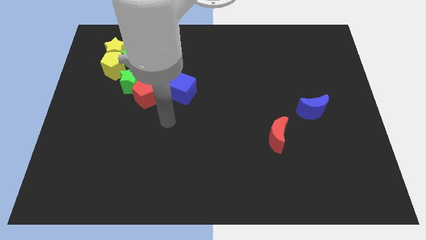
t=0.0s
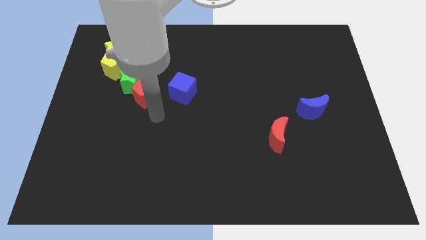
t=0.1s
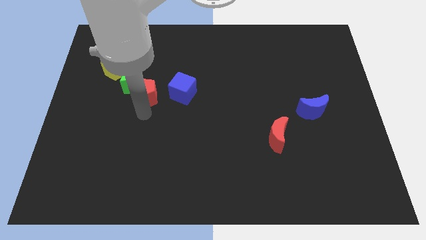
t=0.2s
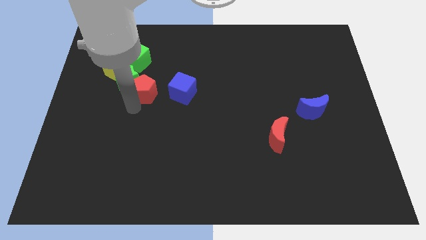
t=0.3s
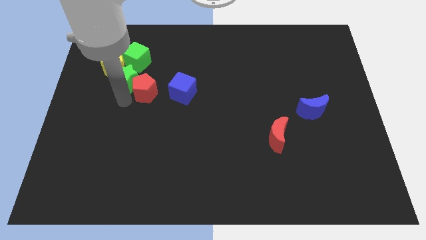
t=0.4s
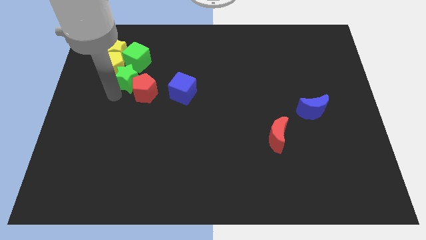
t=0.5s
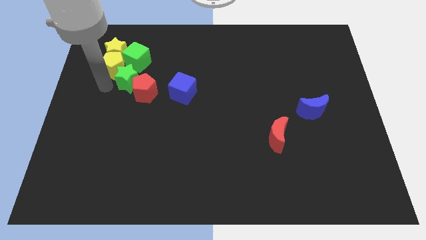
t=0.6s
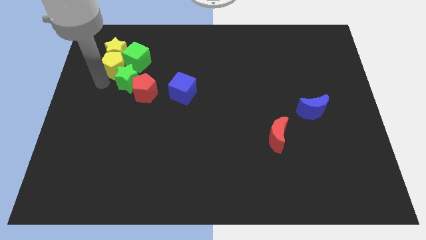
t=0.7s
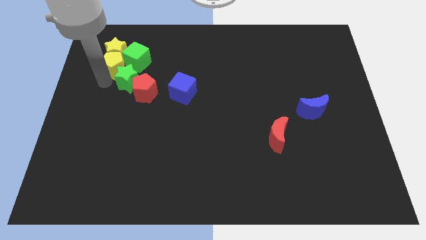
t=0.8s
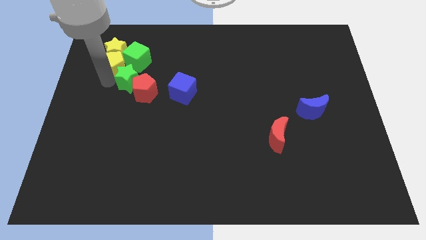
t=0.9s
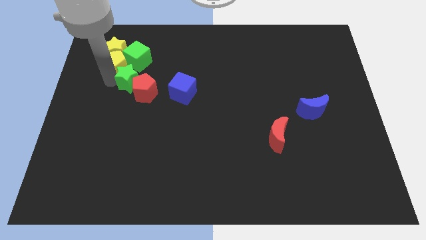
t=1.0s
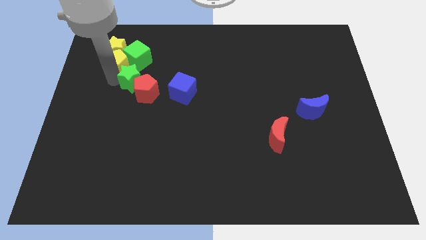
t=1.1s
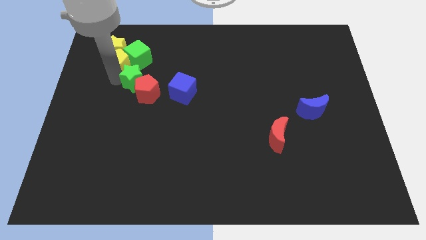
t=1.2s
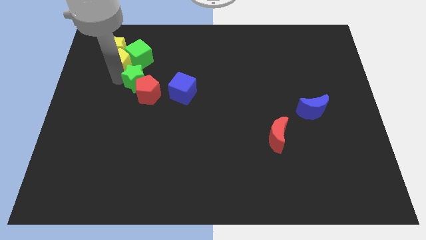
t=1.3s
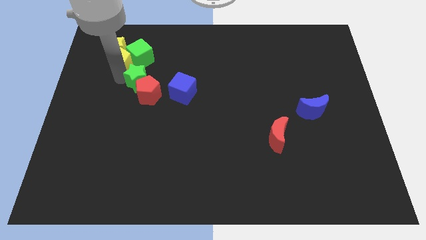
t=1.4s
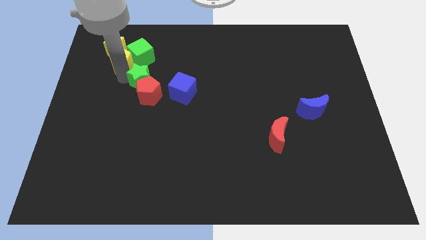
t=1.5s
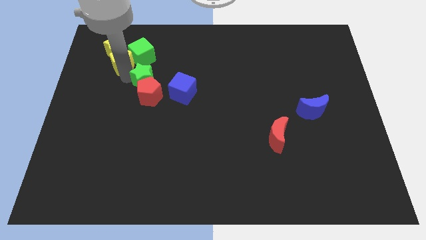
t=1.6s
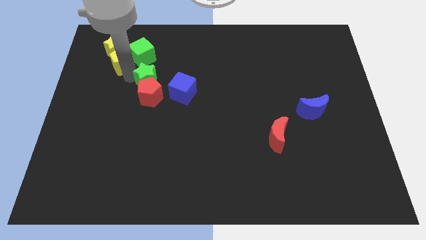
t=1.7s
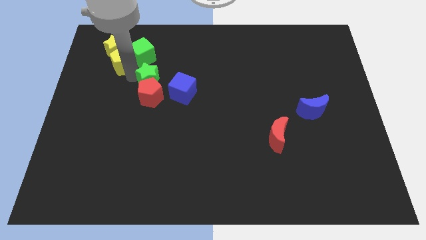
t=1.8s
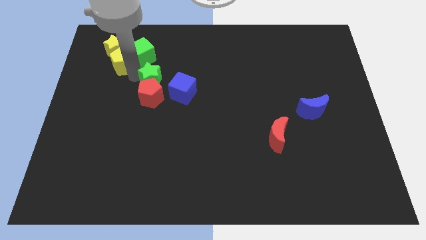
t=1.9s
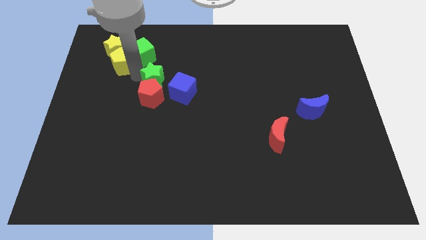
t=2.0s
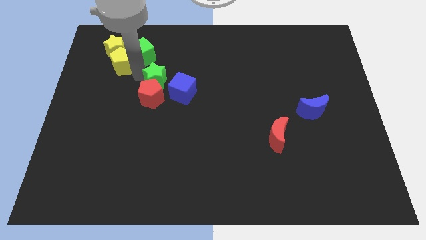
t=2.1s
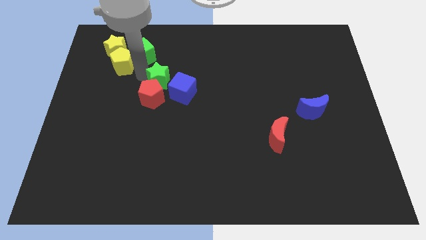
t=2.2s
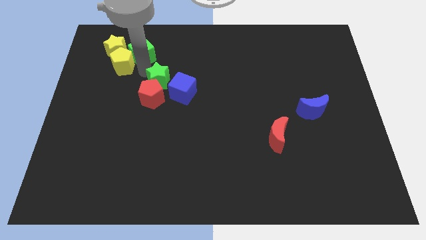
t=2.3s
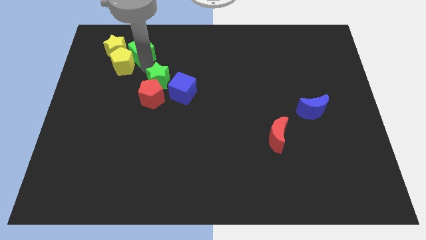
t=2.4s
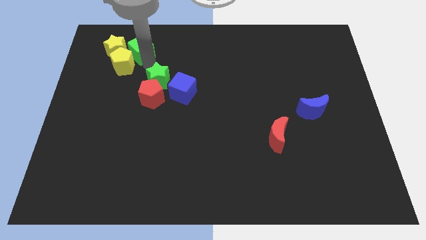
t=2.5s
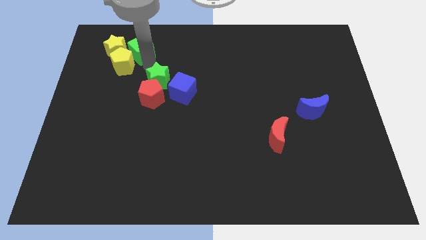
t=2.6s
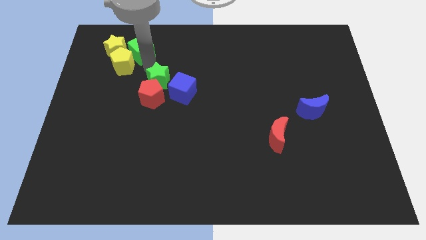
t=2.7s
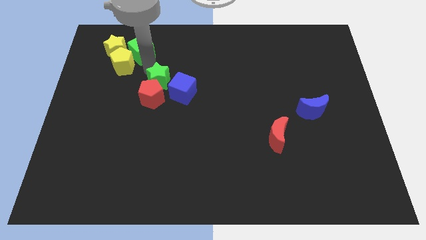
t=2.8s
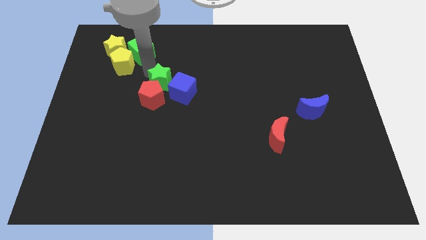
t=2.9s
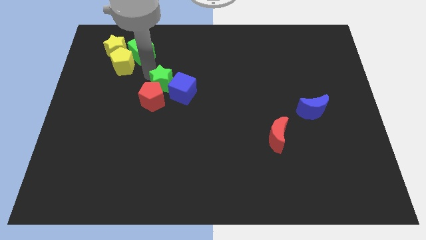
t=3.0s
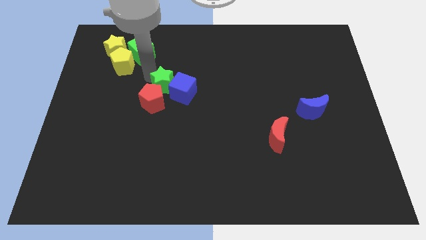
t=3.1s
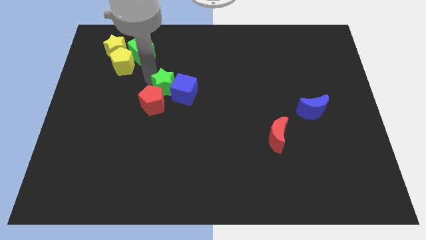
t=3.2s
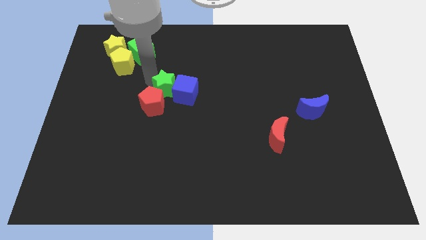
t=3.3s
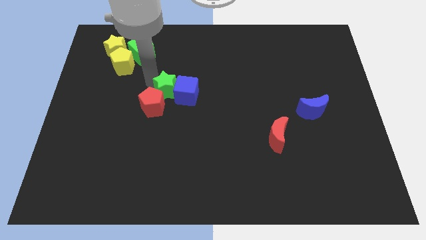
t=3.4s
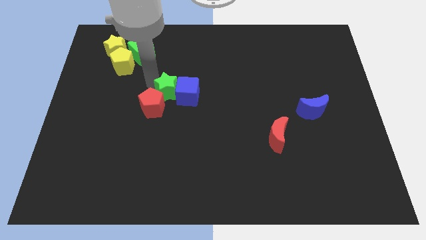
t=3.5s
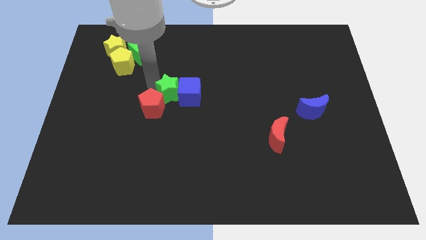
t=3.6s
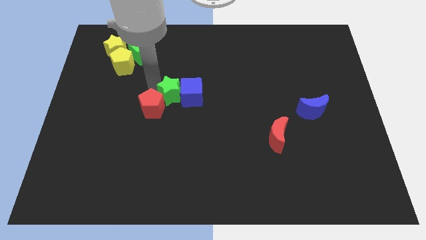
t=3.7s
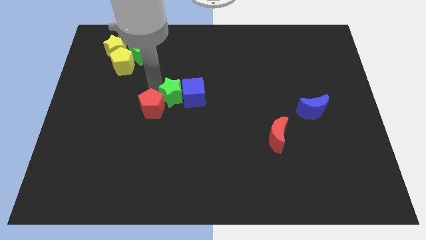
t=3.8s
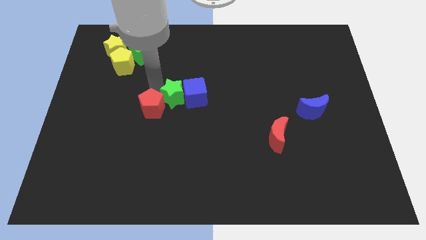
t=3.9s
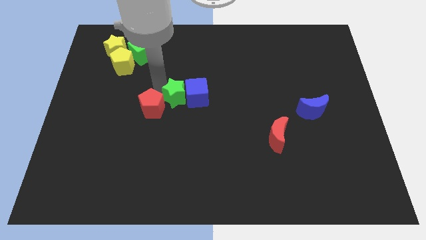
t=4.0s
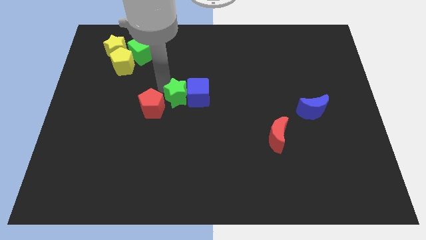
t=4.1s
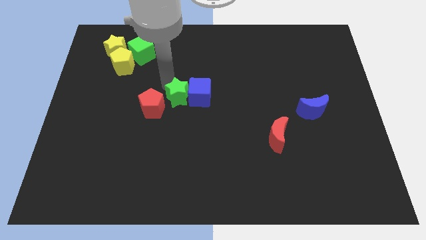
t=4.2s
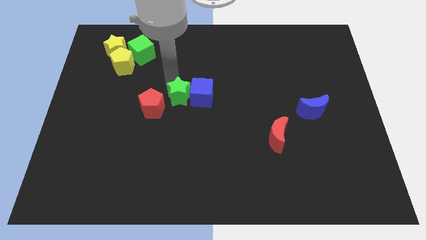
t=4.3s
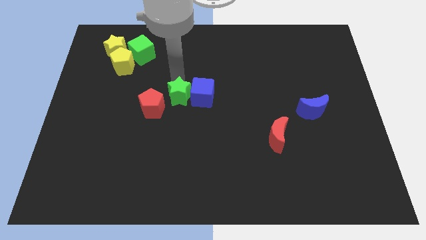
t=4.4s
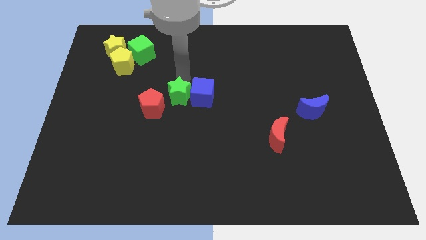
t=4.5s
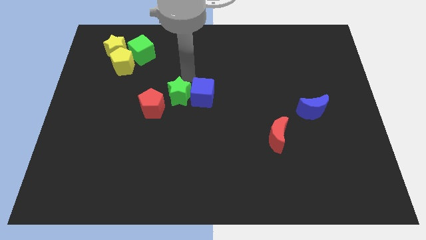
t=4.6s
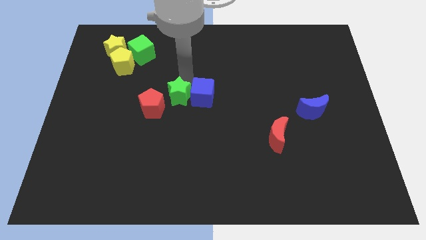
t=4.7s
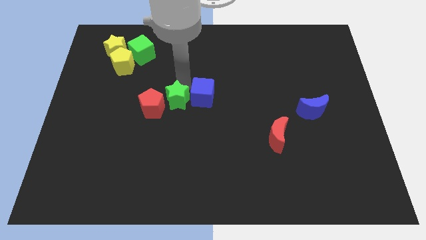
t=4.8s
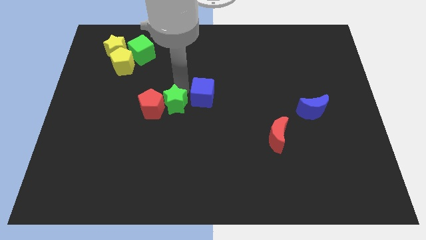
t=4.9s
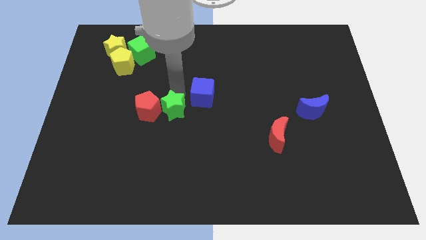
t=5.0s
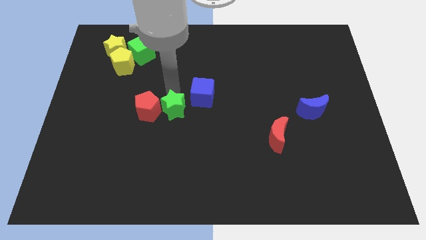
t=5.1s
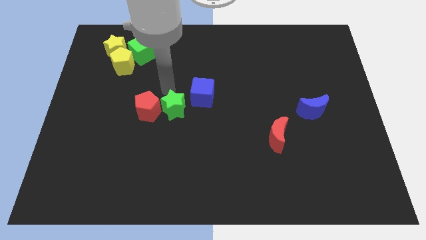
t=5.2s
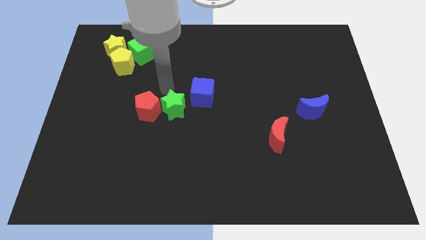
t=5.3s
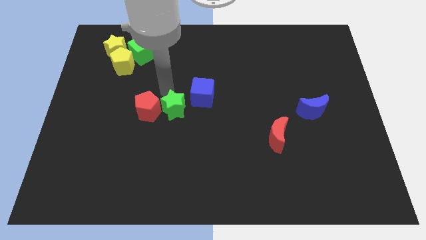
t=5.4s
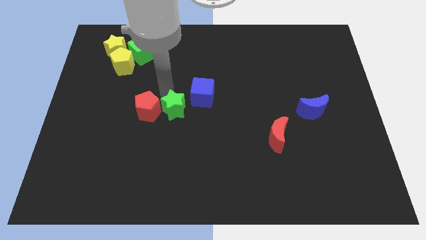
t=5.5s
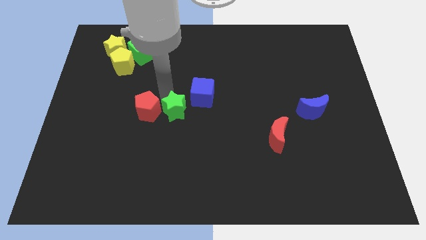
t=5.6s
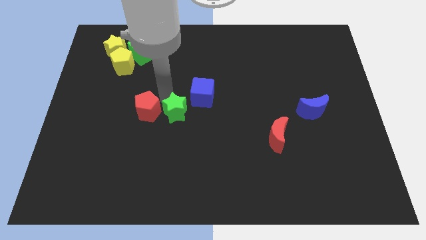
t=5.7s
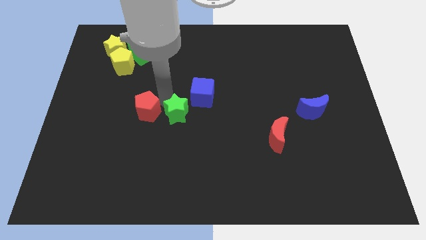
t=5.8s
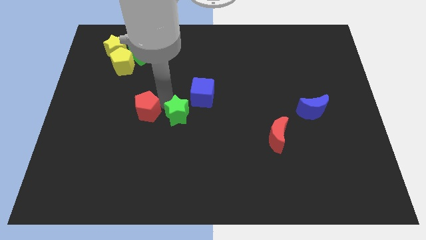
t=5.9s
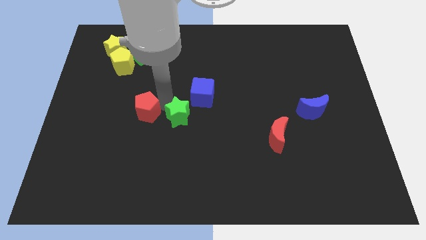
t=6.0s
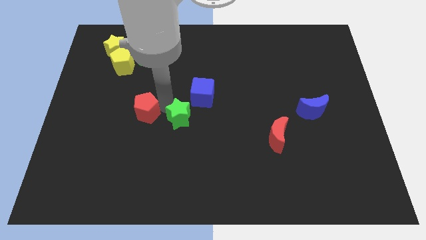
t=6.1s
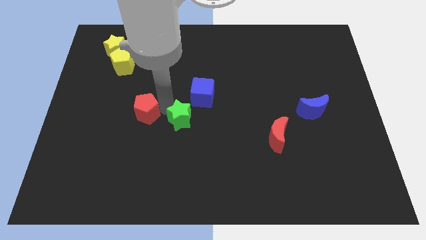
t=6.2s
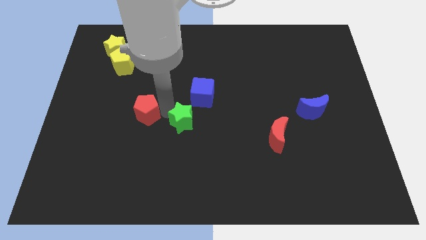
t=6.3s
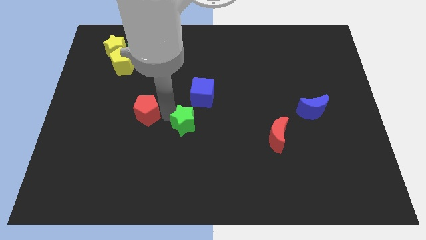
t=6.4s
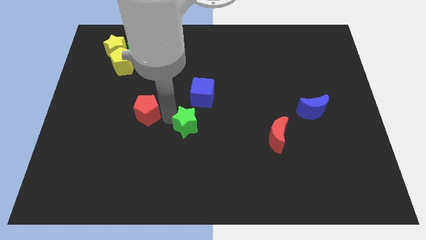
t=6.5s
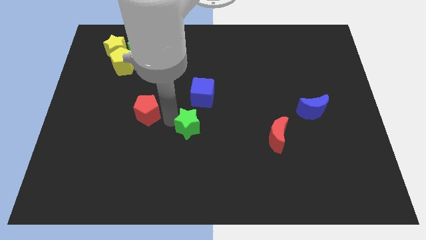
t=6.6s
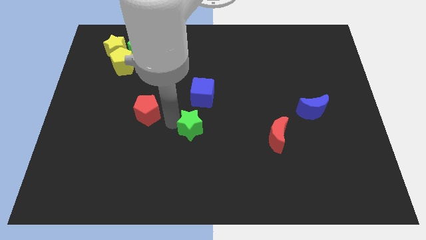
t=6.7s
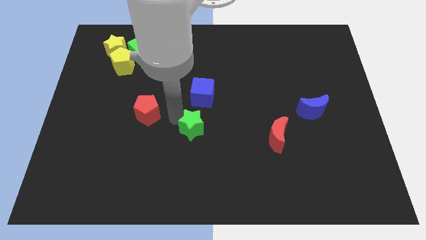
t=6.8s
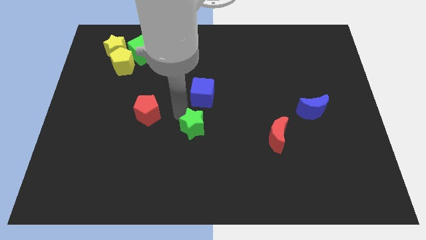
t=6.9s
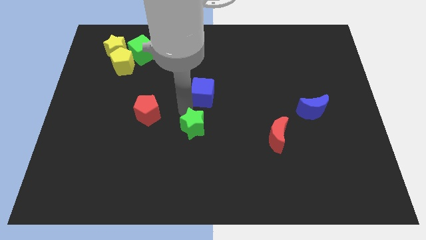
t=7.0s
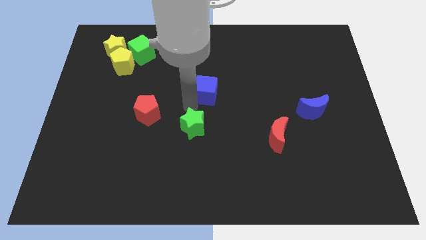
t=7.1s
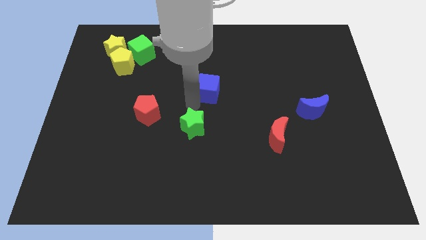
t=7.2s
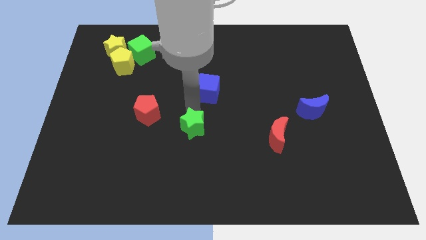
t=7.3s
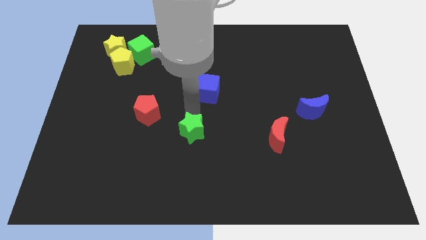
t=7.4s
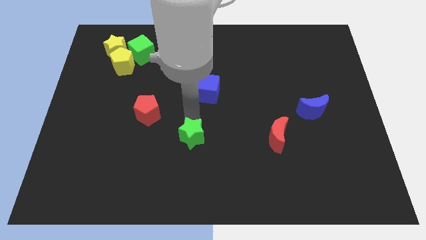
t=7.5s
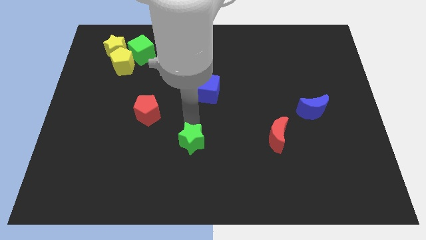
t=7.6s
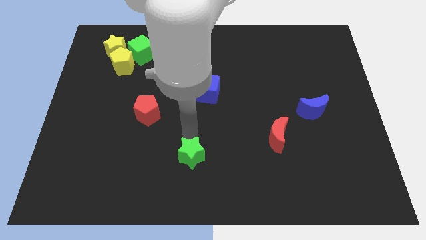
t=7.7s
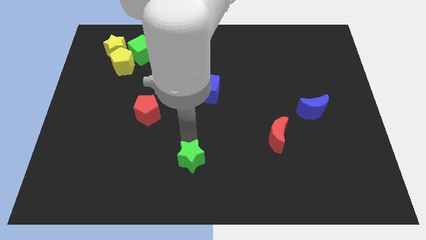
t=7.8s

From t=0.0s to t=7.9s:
push the green star to the bottom
